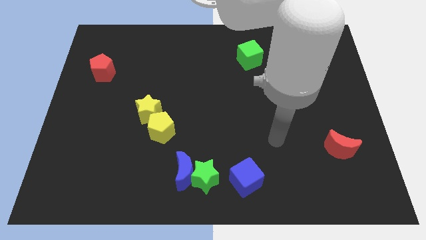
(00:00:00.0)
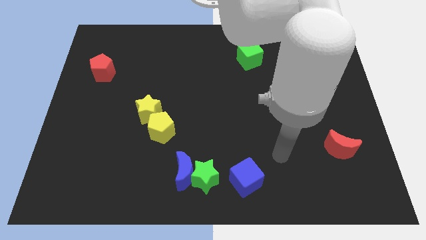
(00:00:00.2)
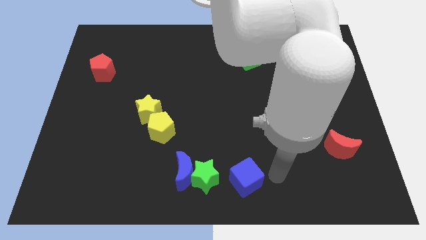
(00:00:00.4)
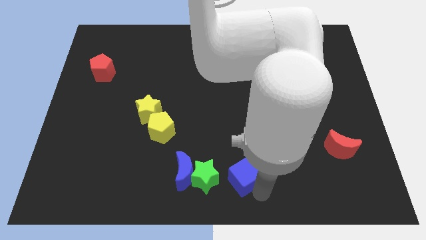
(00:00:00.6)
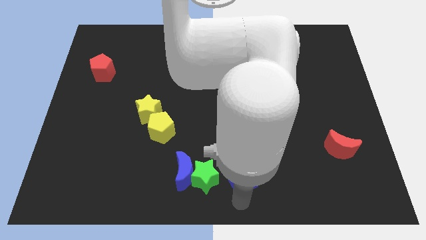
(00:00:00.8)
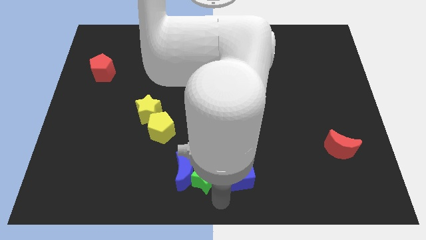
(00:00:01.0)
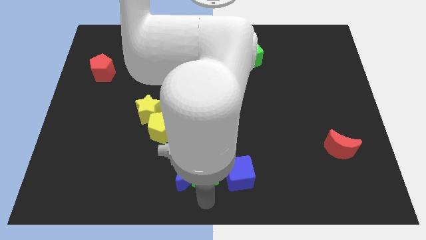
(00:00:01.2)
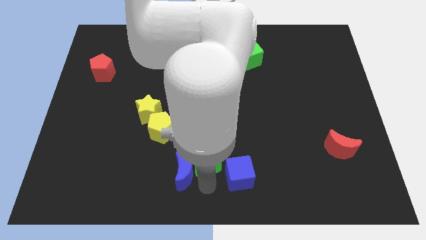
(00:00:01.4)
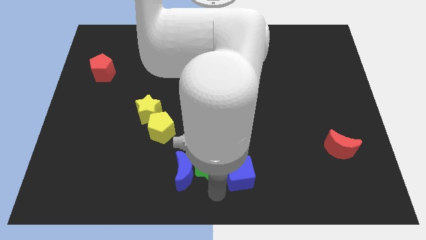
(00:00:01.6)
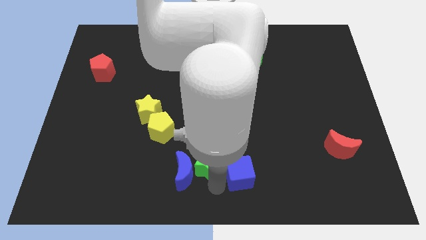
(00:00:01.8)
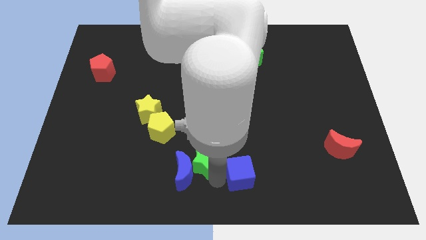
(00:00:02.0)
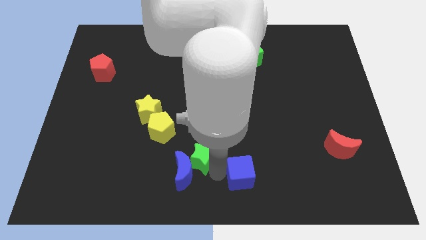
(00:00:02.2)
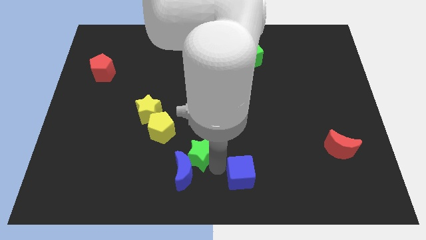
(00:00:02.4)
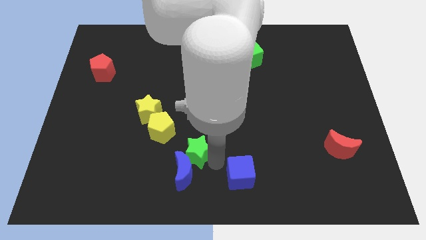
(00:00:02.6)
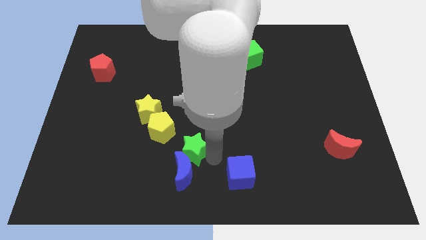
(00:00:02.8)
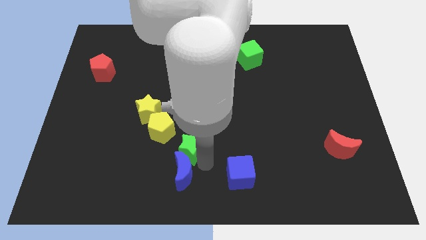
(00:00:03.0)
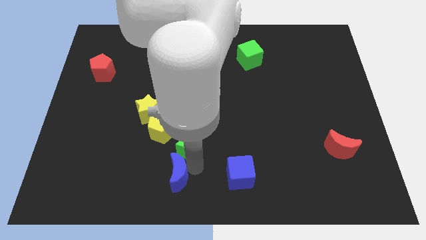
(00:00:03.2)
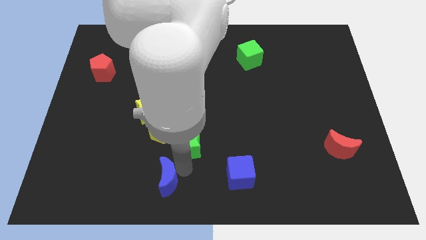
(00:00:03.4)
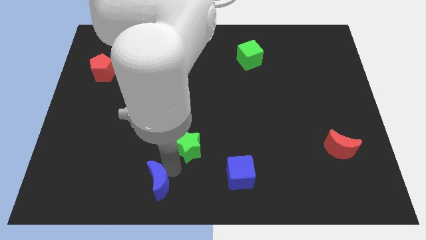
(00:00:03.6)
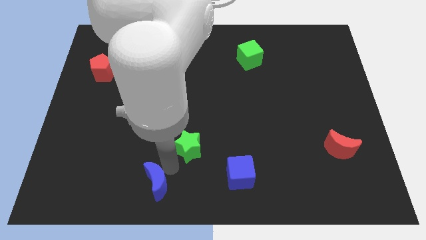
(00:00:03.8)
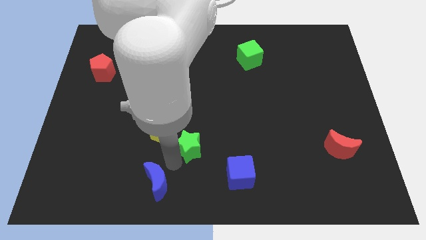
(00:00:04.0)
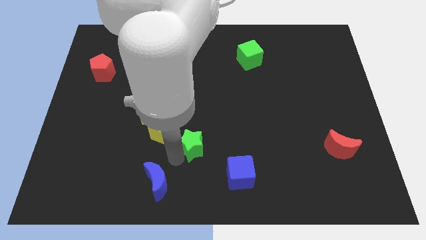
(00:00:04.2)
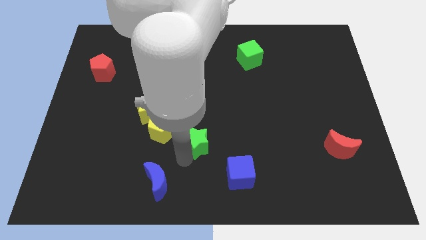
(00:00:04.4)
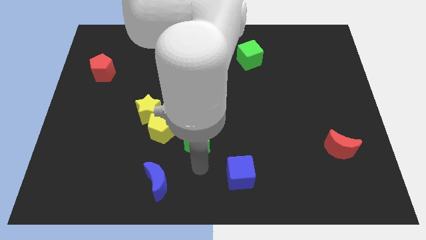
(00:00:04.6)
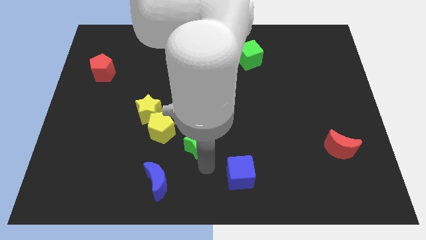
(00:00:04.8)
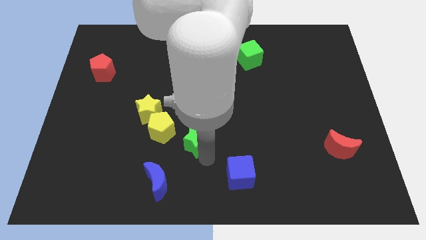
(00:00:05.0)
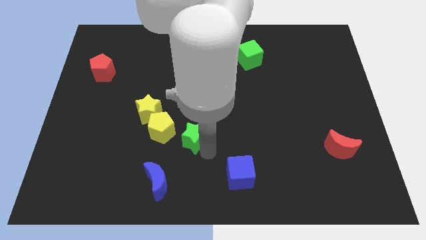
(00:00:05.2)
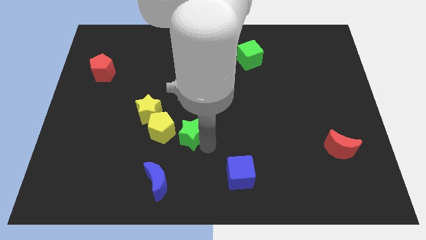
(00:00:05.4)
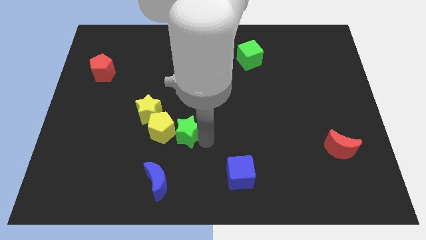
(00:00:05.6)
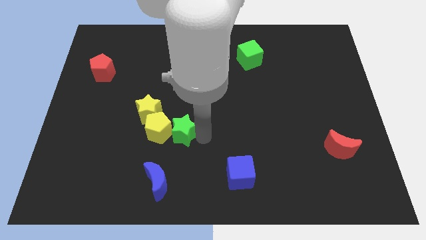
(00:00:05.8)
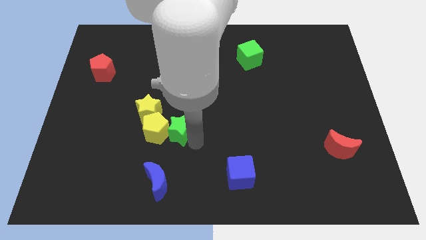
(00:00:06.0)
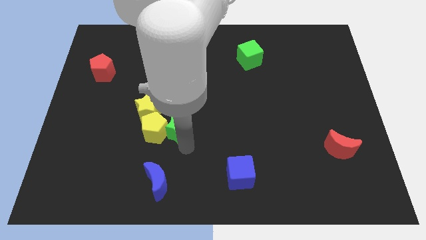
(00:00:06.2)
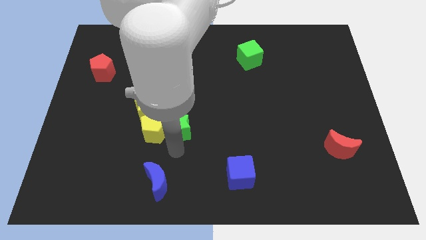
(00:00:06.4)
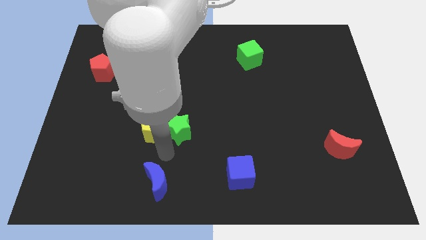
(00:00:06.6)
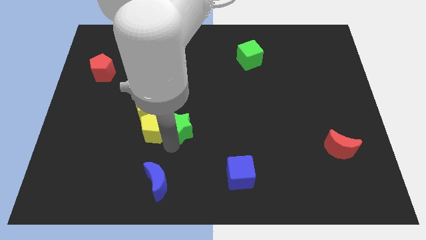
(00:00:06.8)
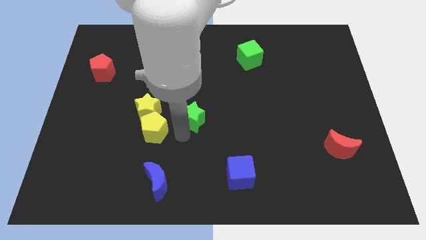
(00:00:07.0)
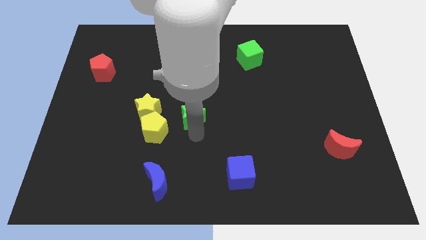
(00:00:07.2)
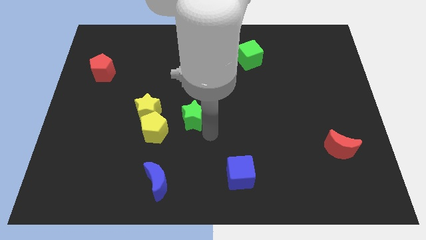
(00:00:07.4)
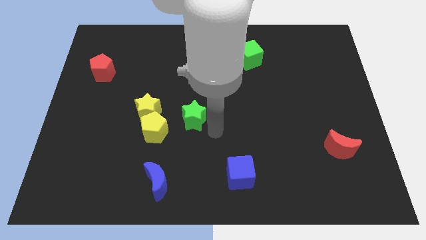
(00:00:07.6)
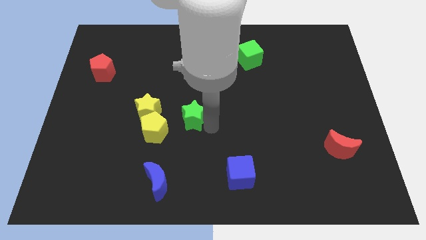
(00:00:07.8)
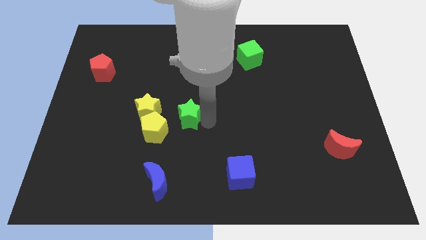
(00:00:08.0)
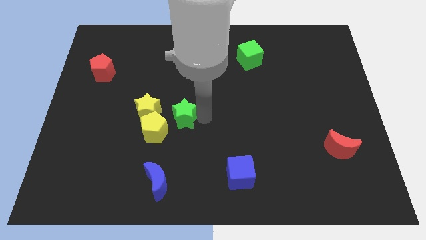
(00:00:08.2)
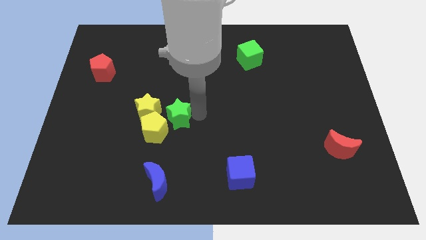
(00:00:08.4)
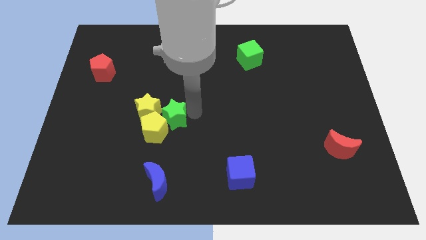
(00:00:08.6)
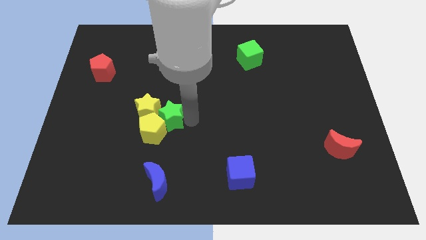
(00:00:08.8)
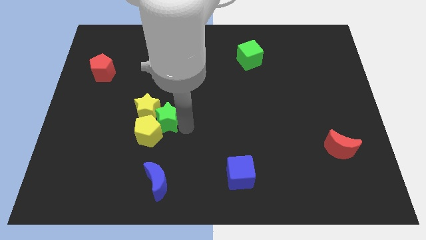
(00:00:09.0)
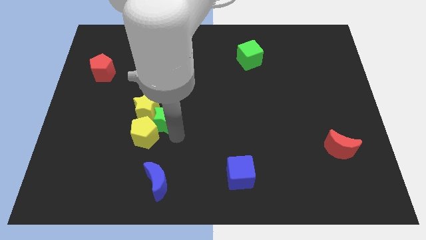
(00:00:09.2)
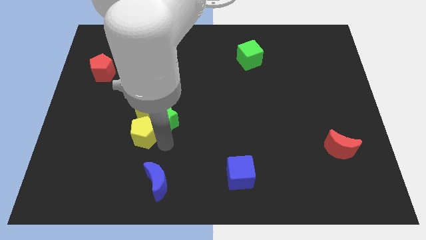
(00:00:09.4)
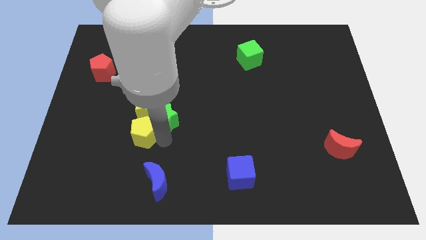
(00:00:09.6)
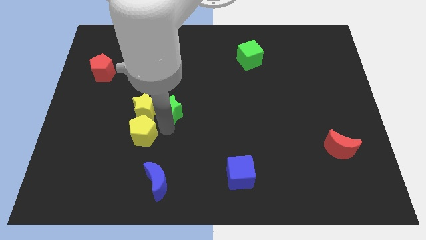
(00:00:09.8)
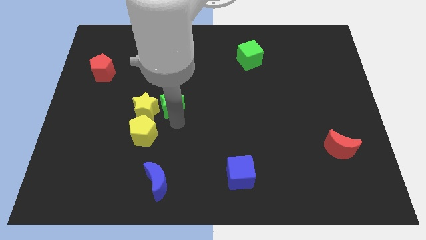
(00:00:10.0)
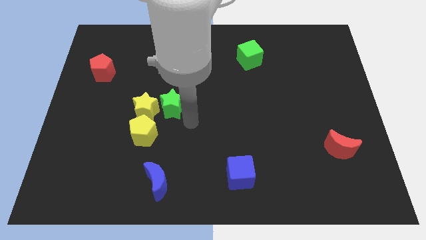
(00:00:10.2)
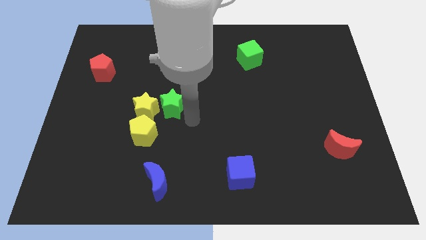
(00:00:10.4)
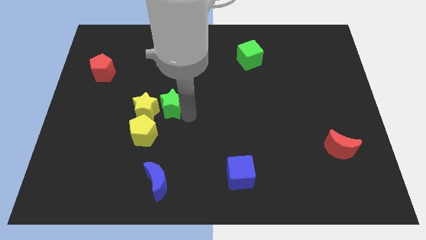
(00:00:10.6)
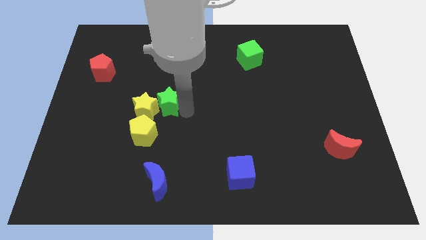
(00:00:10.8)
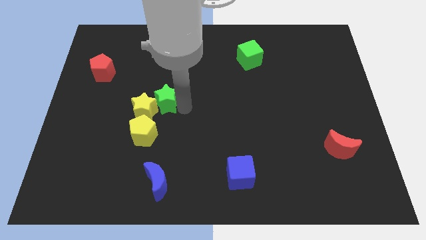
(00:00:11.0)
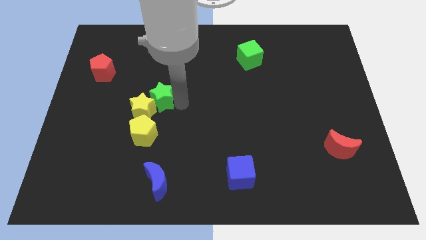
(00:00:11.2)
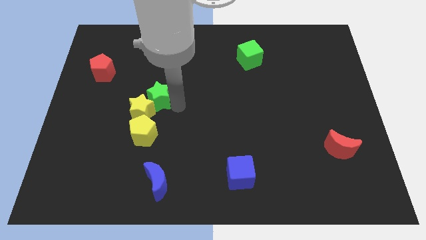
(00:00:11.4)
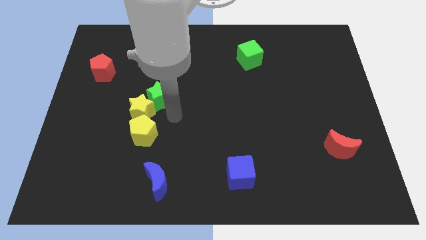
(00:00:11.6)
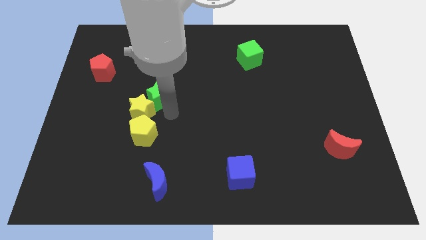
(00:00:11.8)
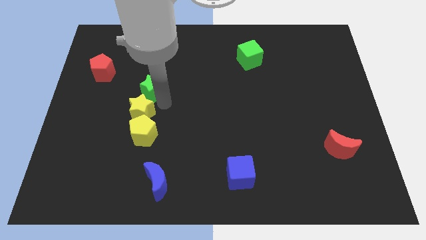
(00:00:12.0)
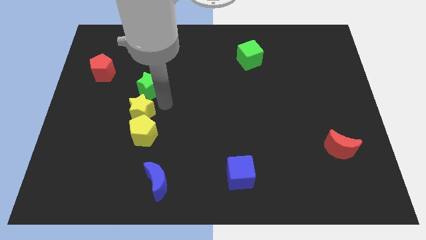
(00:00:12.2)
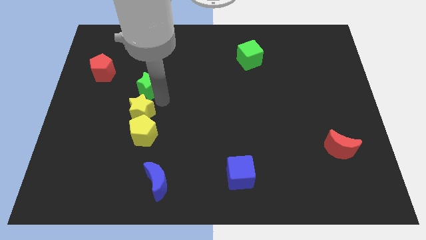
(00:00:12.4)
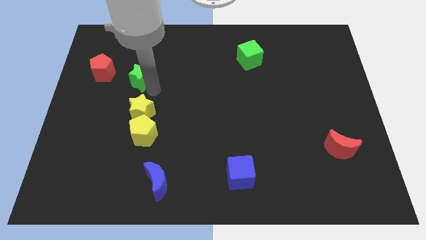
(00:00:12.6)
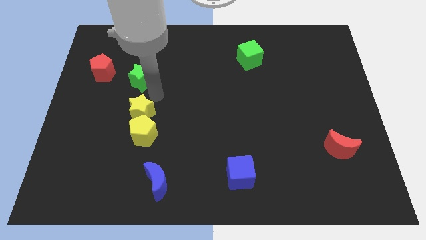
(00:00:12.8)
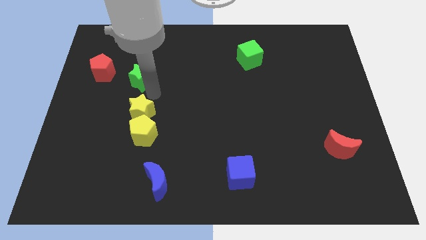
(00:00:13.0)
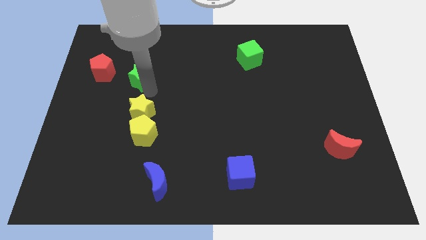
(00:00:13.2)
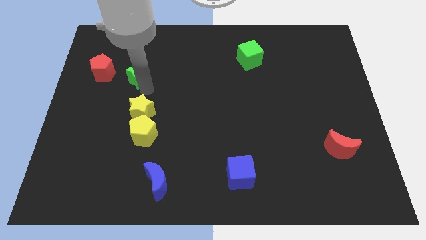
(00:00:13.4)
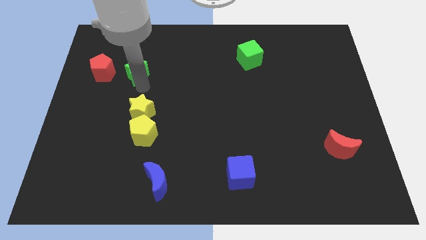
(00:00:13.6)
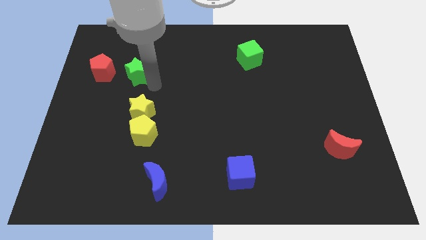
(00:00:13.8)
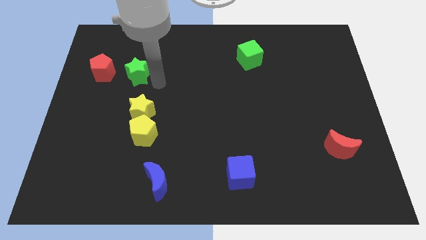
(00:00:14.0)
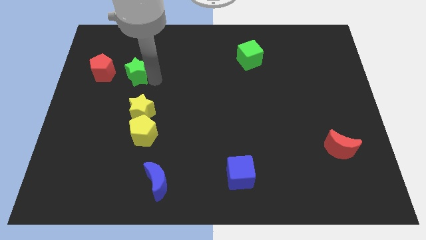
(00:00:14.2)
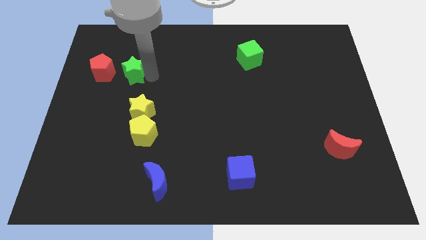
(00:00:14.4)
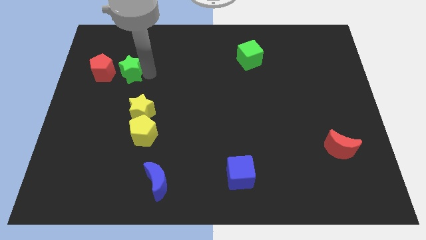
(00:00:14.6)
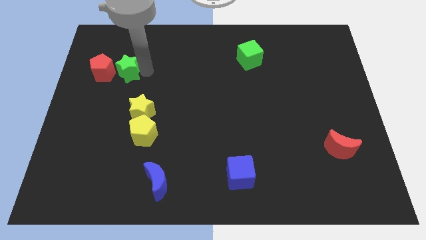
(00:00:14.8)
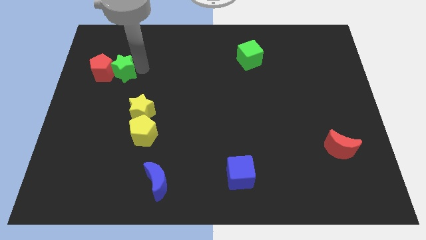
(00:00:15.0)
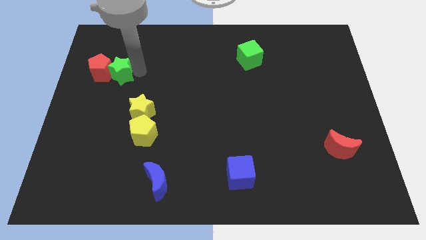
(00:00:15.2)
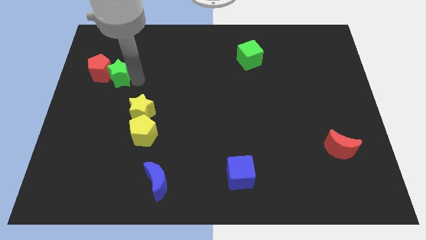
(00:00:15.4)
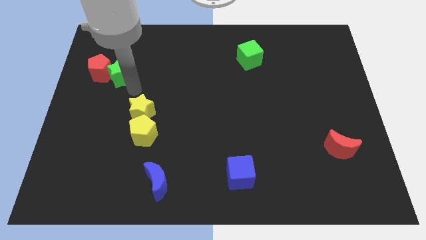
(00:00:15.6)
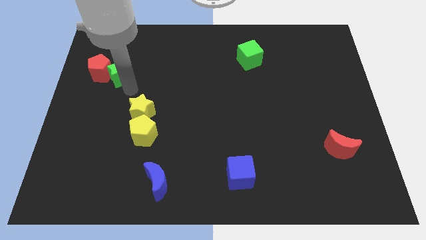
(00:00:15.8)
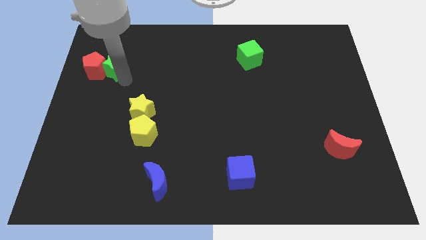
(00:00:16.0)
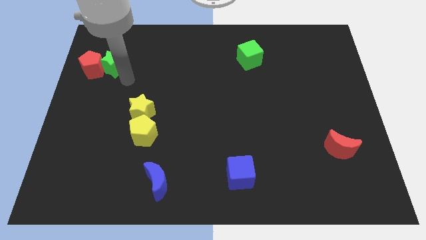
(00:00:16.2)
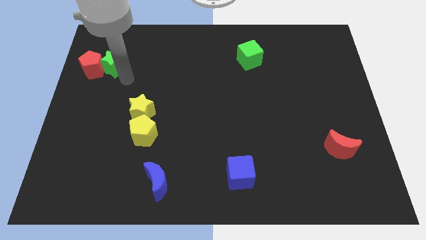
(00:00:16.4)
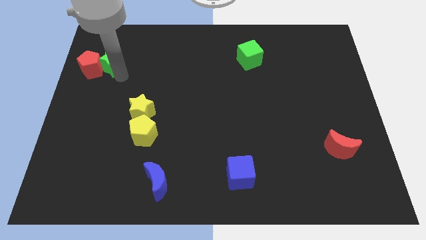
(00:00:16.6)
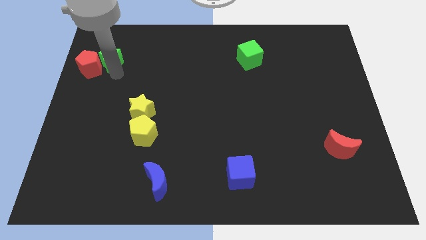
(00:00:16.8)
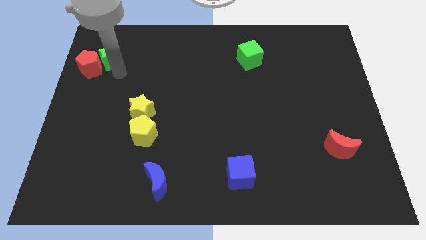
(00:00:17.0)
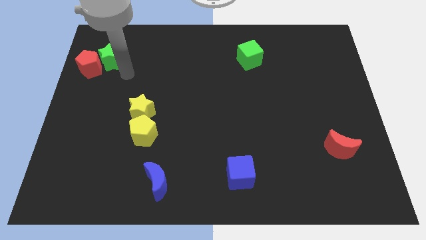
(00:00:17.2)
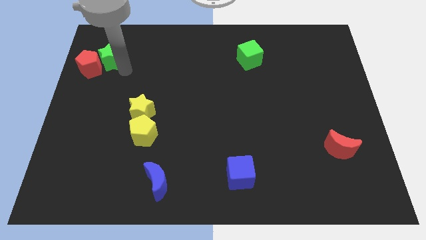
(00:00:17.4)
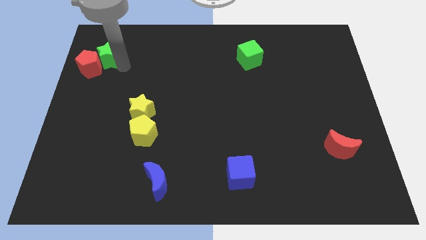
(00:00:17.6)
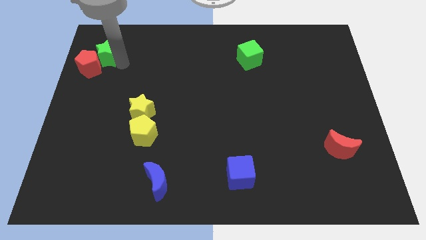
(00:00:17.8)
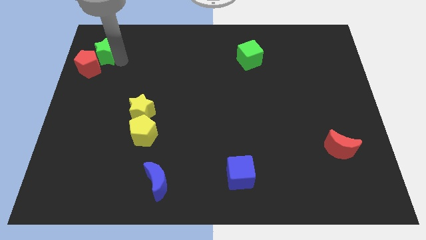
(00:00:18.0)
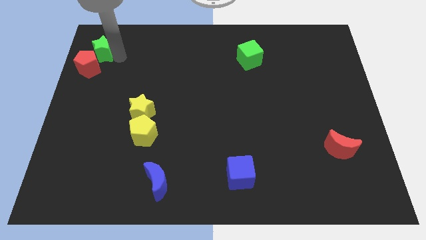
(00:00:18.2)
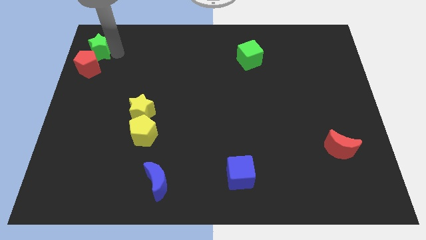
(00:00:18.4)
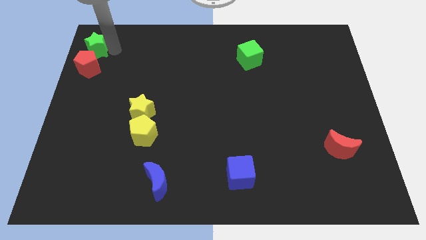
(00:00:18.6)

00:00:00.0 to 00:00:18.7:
put the green star to the upper left corner
